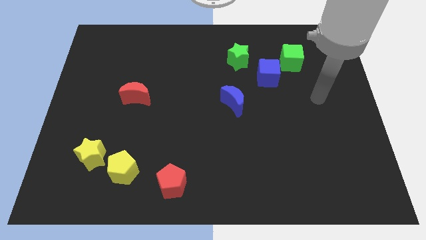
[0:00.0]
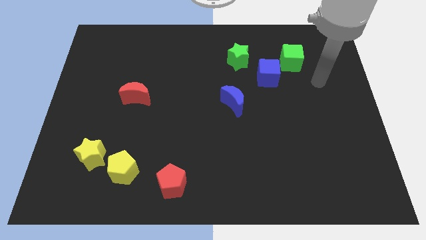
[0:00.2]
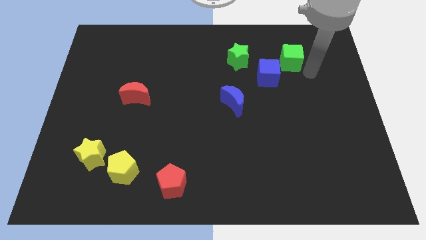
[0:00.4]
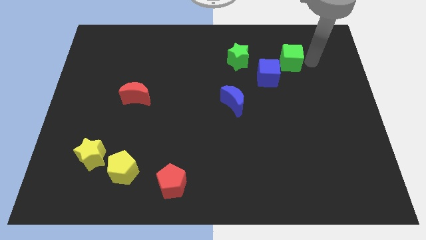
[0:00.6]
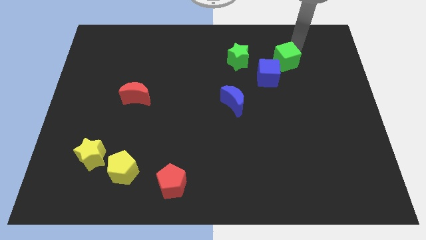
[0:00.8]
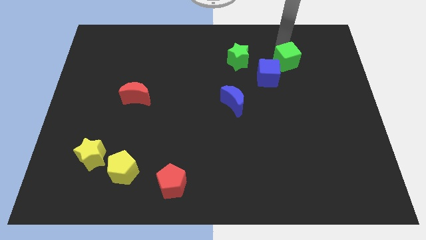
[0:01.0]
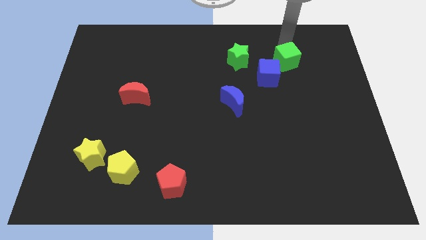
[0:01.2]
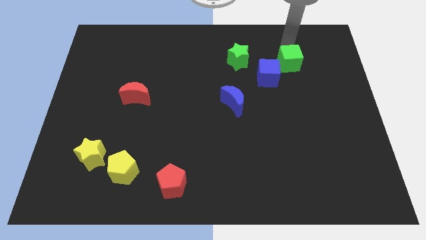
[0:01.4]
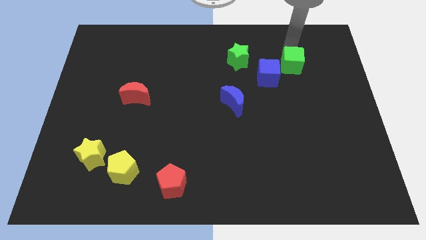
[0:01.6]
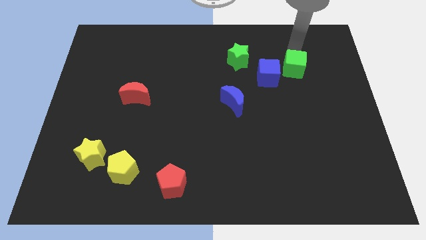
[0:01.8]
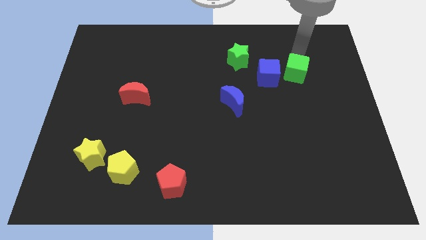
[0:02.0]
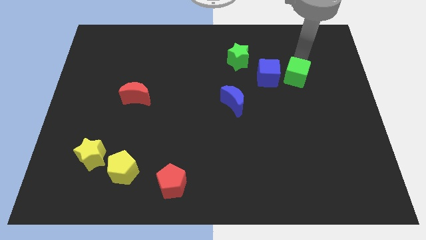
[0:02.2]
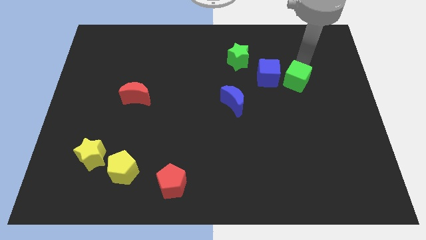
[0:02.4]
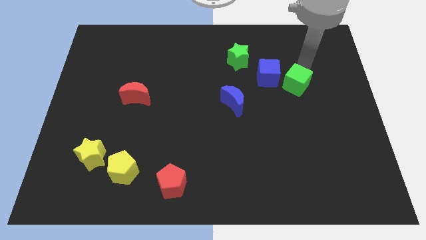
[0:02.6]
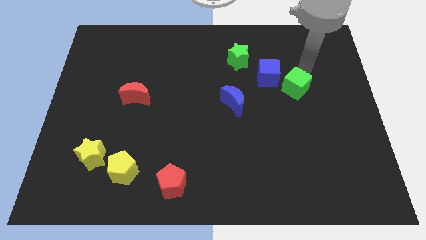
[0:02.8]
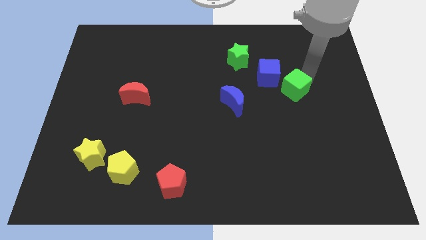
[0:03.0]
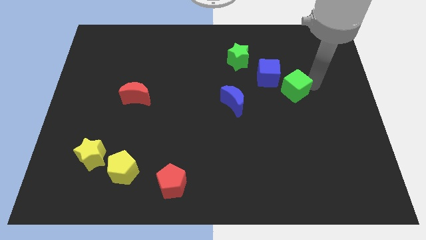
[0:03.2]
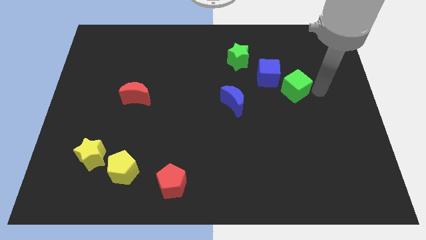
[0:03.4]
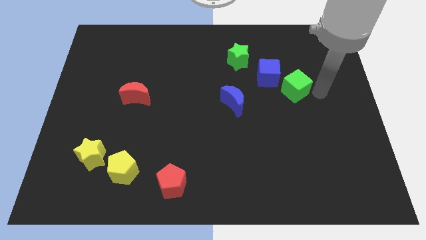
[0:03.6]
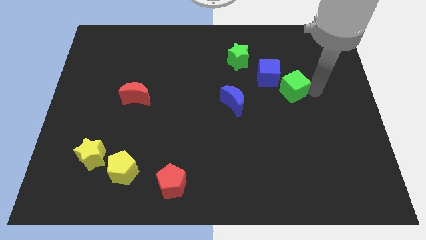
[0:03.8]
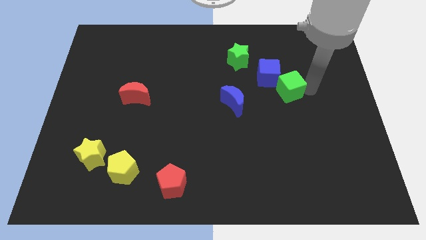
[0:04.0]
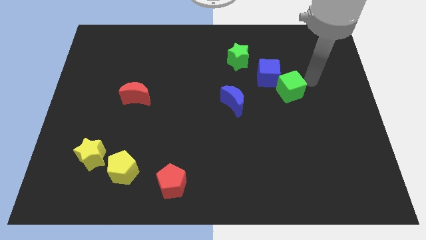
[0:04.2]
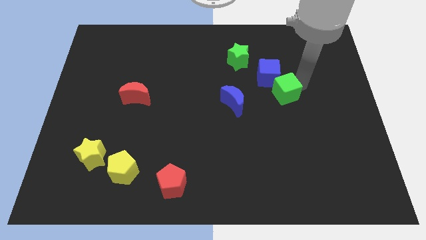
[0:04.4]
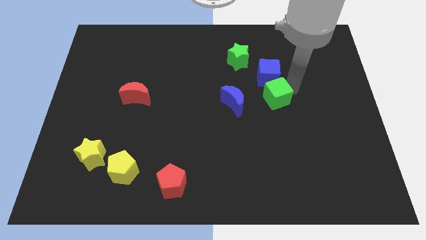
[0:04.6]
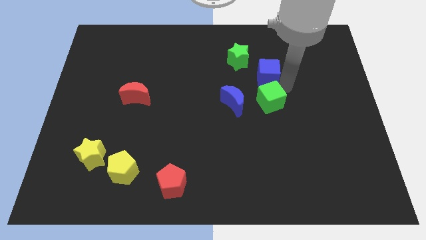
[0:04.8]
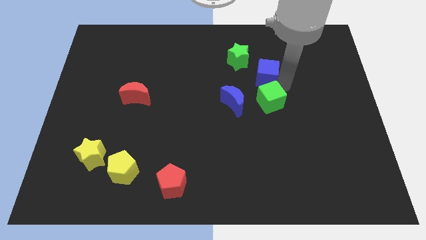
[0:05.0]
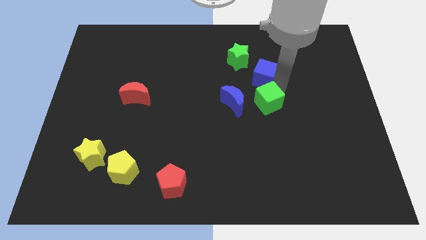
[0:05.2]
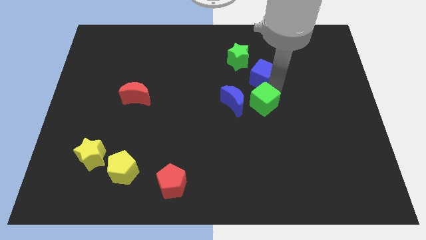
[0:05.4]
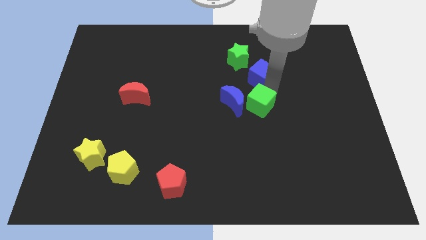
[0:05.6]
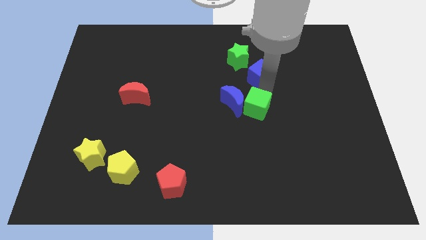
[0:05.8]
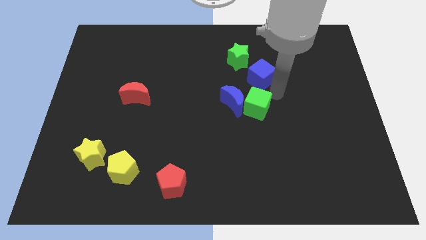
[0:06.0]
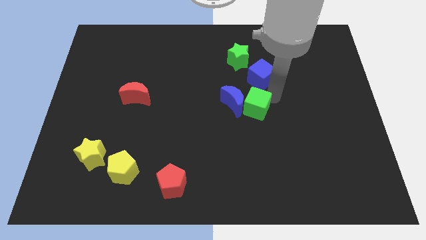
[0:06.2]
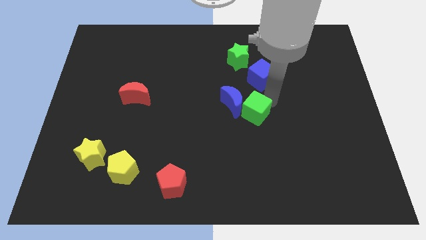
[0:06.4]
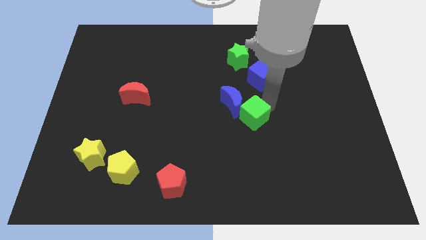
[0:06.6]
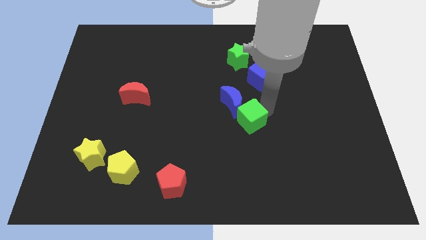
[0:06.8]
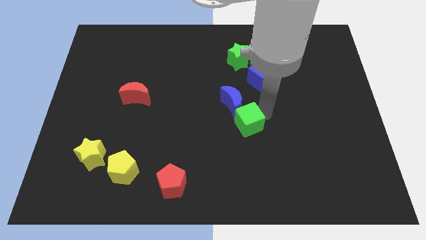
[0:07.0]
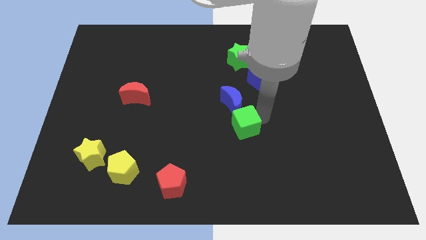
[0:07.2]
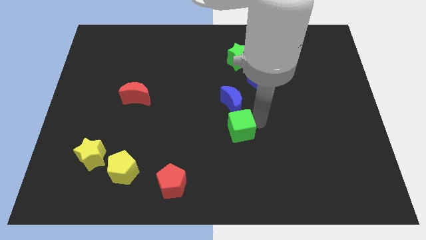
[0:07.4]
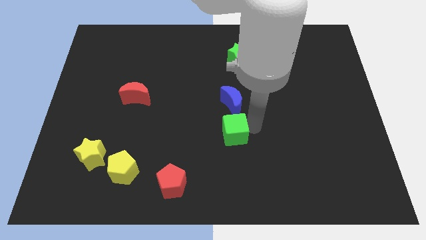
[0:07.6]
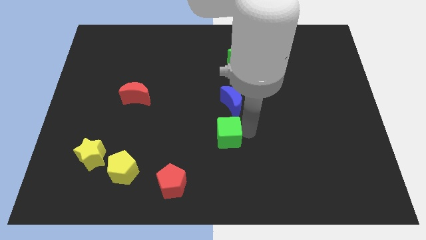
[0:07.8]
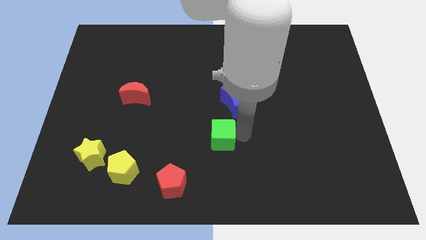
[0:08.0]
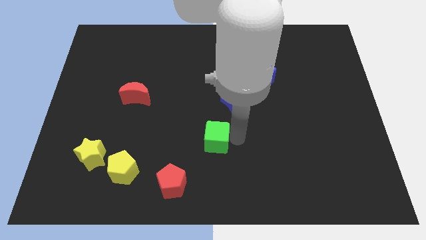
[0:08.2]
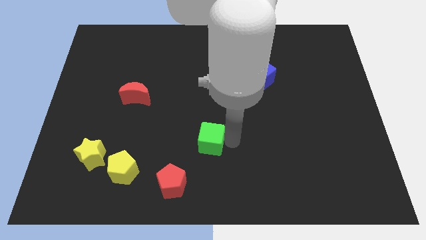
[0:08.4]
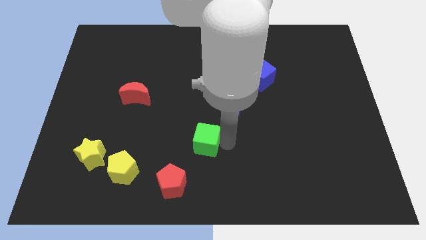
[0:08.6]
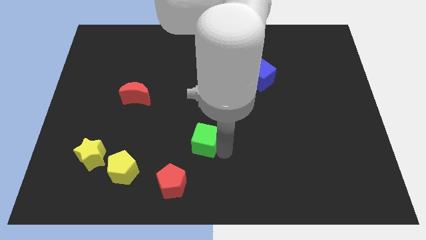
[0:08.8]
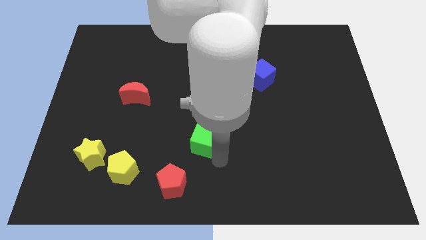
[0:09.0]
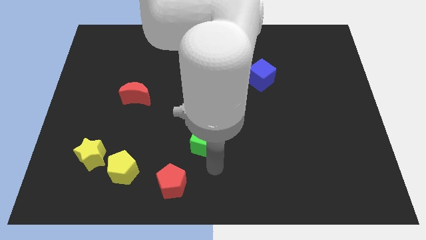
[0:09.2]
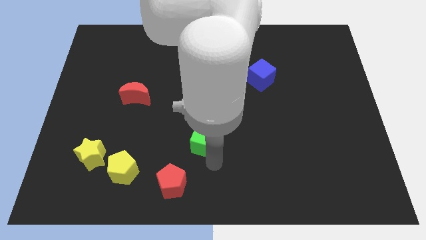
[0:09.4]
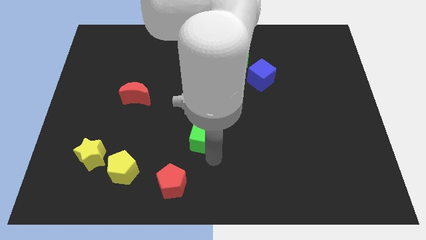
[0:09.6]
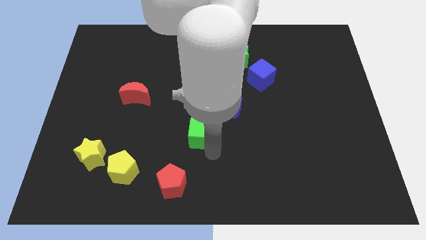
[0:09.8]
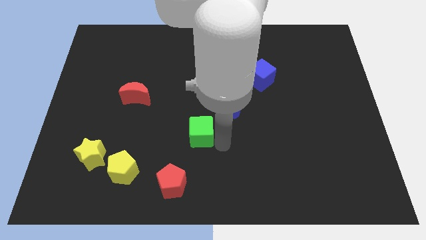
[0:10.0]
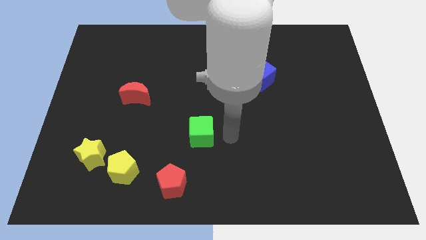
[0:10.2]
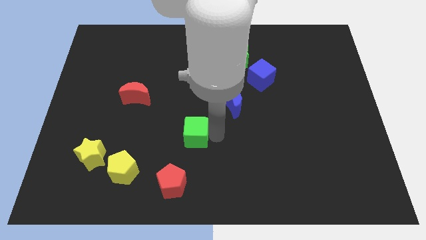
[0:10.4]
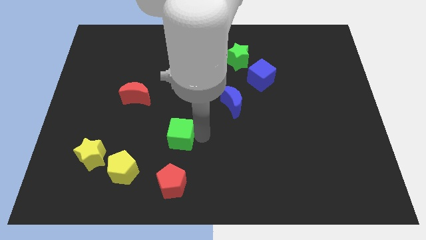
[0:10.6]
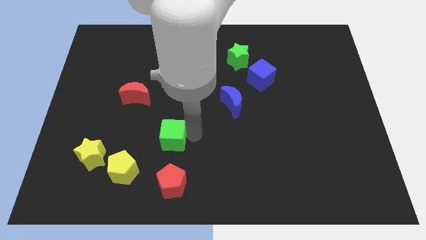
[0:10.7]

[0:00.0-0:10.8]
put the green cube to the top right side of the yellow pentagon
